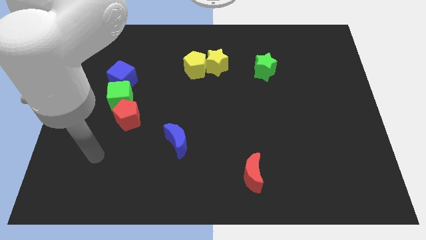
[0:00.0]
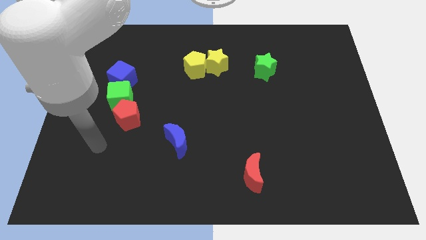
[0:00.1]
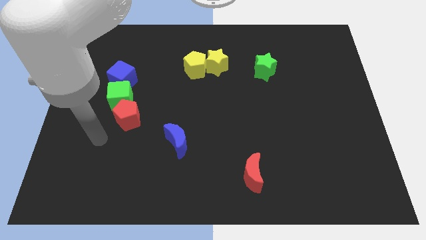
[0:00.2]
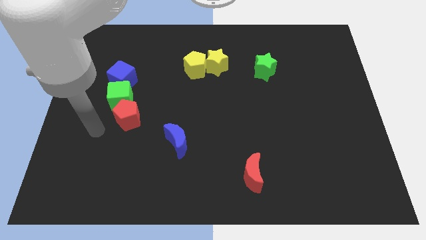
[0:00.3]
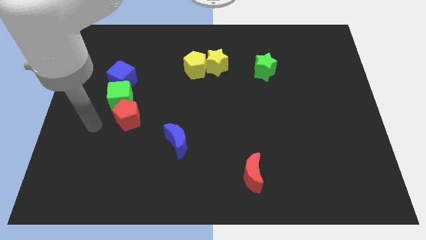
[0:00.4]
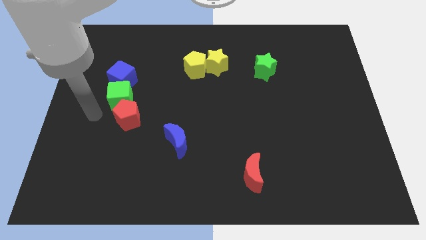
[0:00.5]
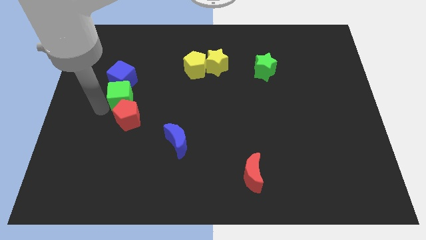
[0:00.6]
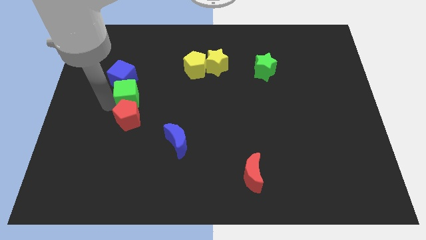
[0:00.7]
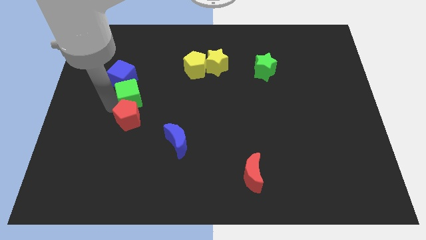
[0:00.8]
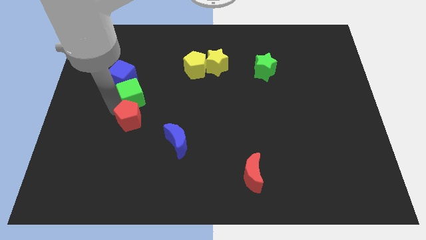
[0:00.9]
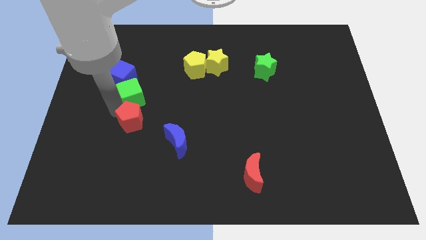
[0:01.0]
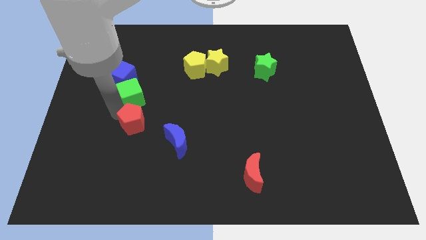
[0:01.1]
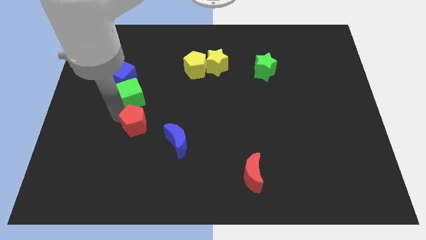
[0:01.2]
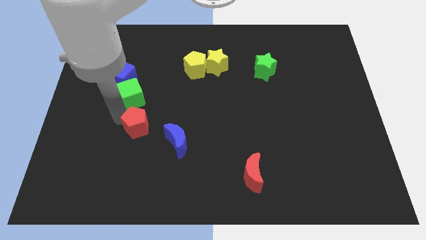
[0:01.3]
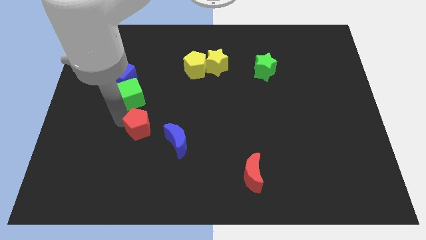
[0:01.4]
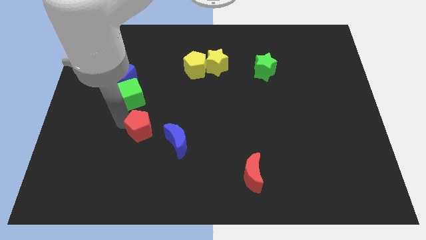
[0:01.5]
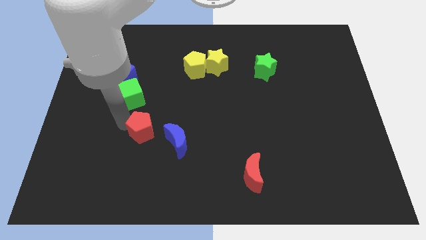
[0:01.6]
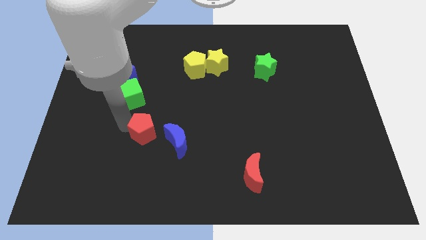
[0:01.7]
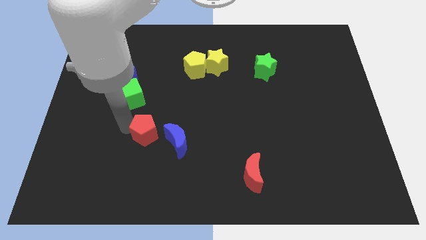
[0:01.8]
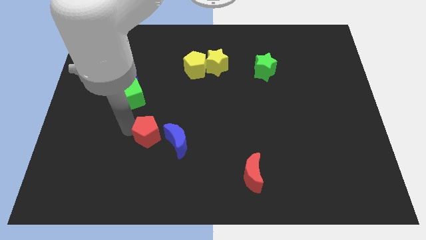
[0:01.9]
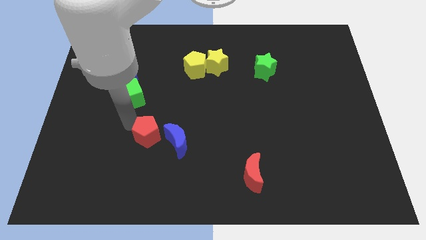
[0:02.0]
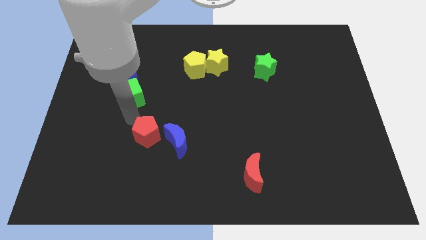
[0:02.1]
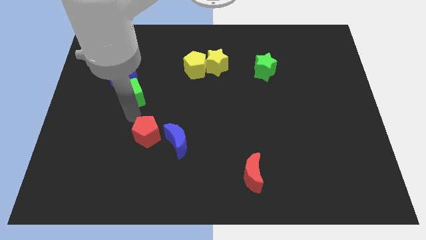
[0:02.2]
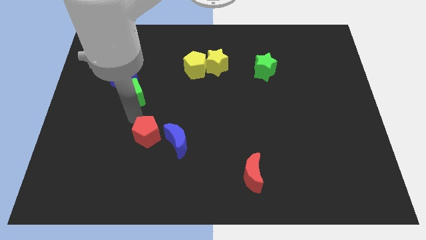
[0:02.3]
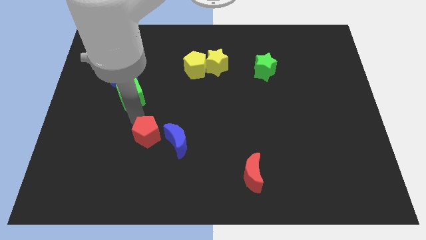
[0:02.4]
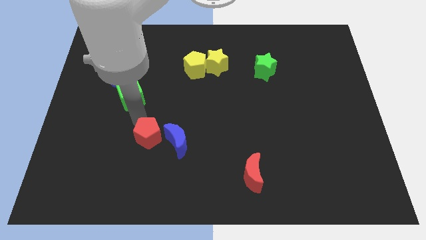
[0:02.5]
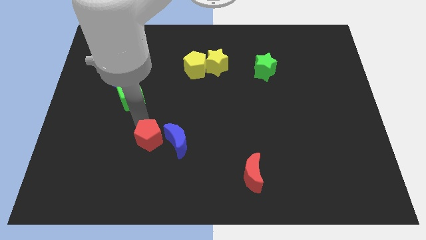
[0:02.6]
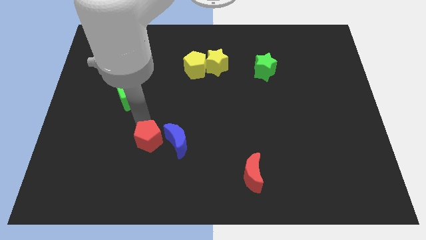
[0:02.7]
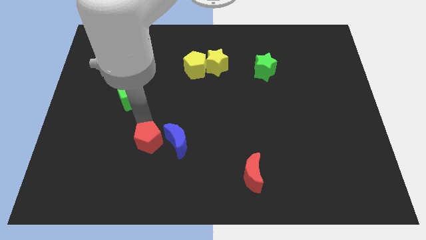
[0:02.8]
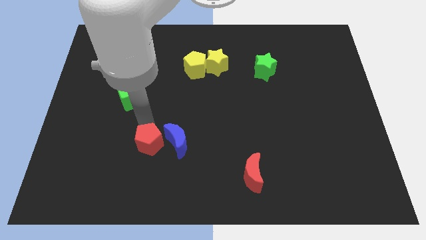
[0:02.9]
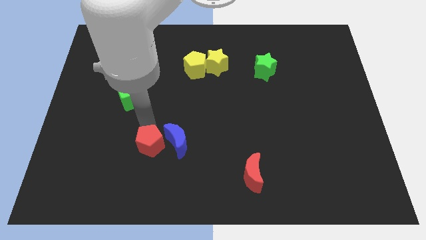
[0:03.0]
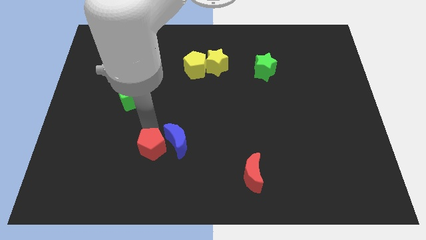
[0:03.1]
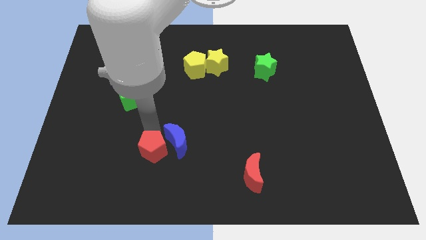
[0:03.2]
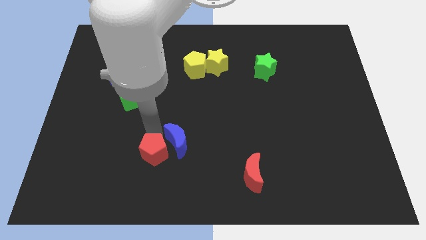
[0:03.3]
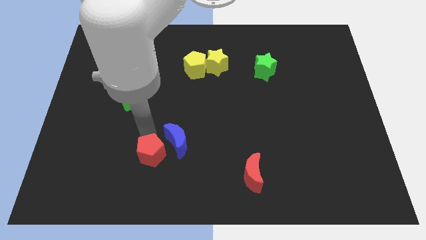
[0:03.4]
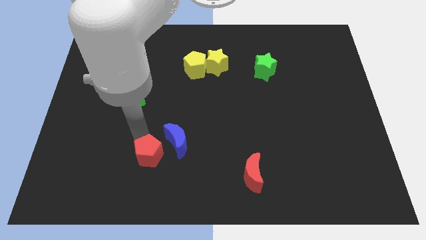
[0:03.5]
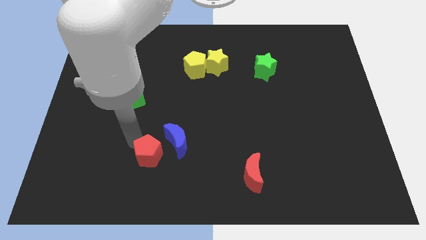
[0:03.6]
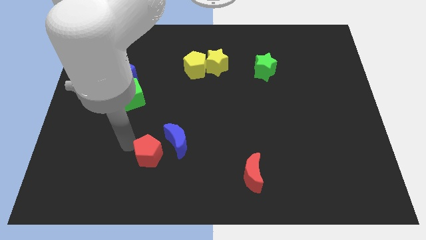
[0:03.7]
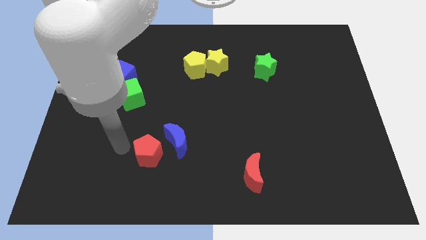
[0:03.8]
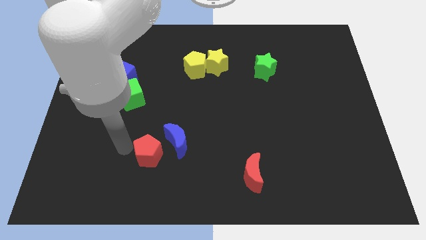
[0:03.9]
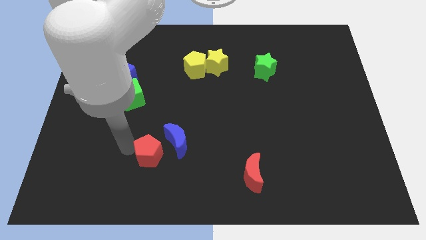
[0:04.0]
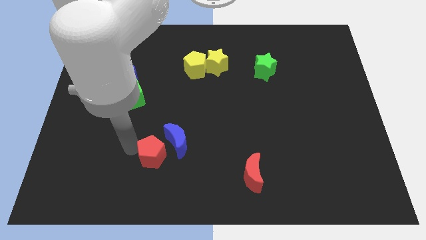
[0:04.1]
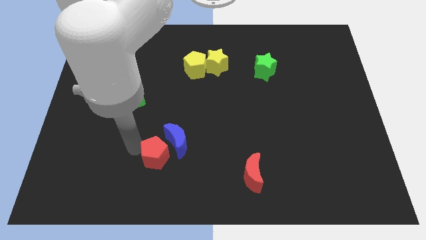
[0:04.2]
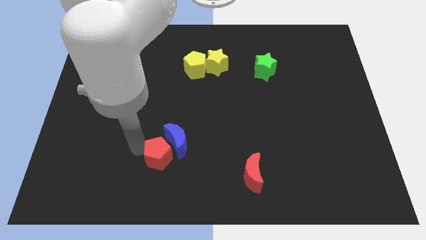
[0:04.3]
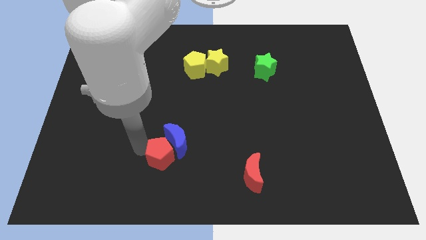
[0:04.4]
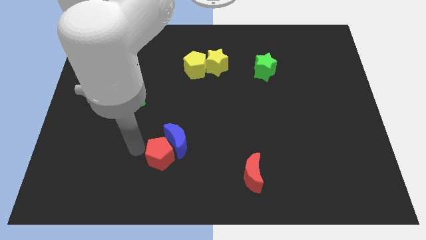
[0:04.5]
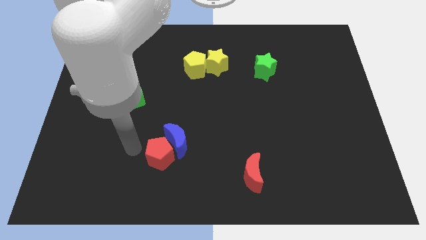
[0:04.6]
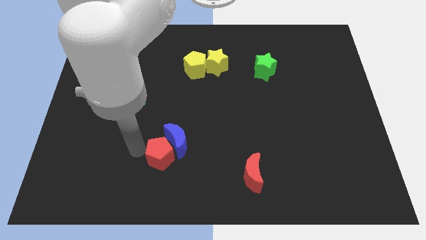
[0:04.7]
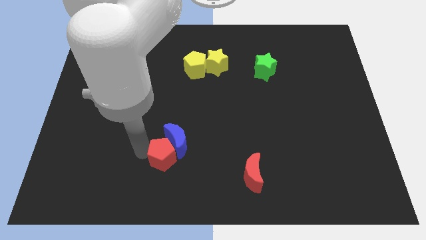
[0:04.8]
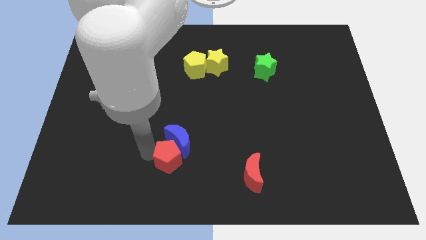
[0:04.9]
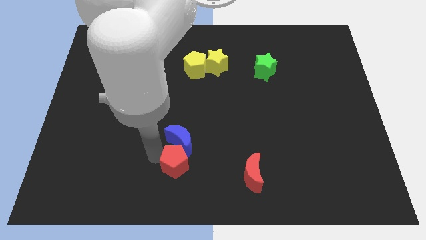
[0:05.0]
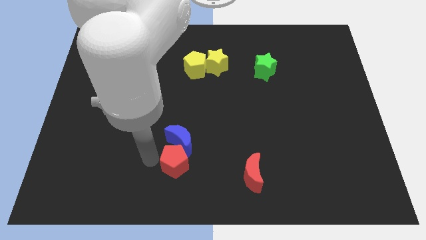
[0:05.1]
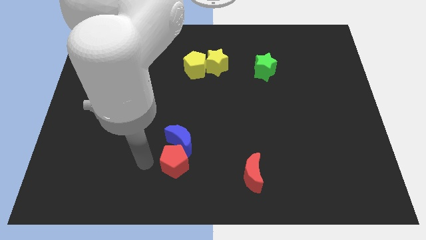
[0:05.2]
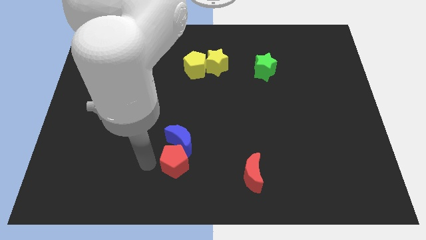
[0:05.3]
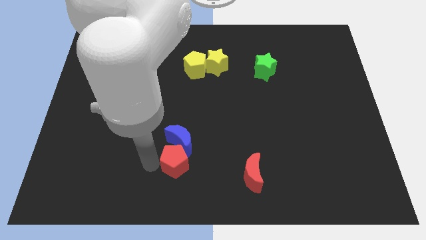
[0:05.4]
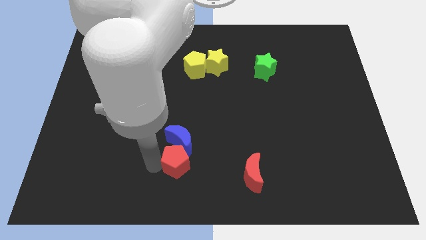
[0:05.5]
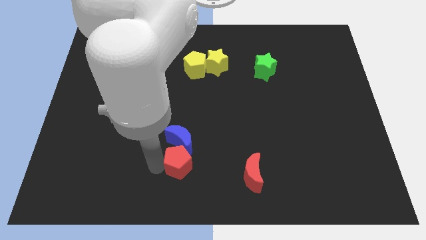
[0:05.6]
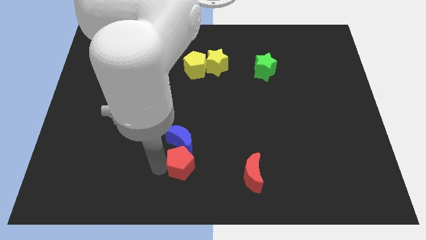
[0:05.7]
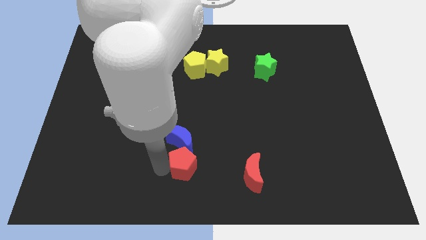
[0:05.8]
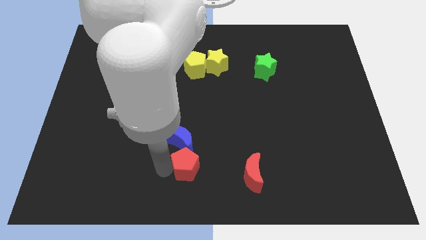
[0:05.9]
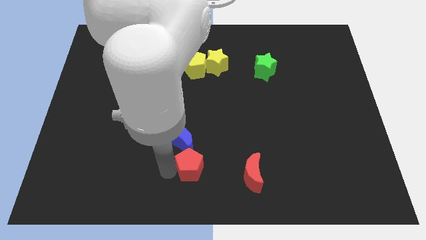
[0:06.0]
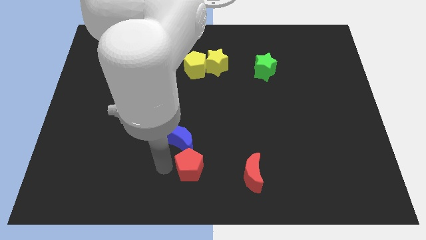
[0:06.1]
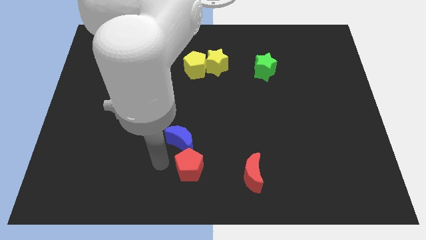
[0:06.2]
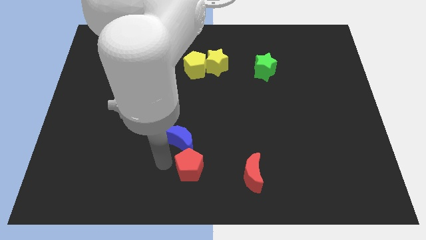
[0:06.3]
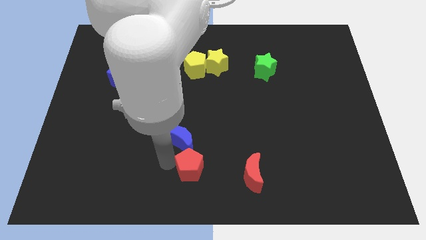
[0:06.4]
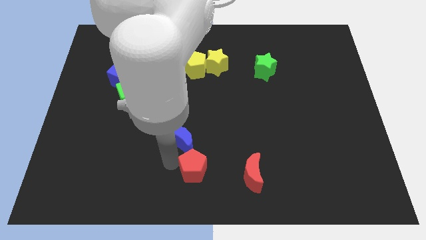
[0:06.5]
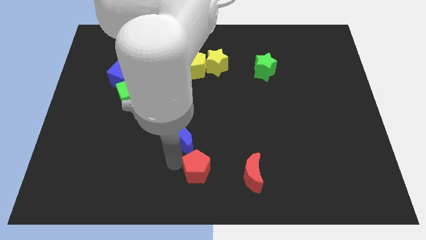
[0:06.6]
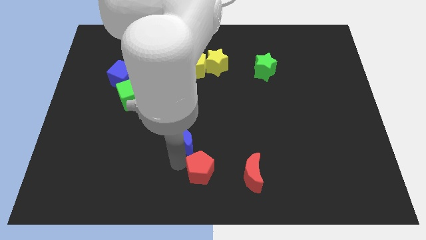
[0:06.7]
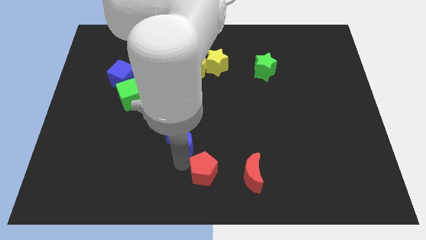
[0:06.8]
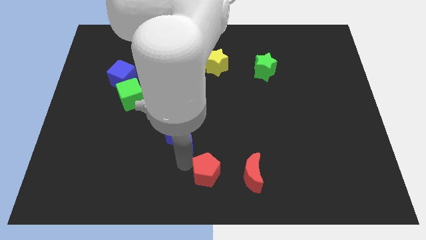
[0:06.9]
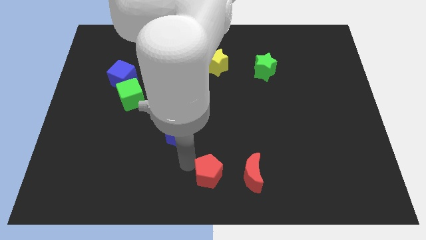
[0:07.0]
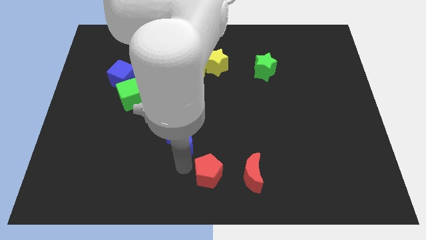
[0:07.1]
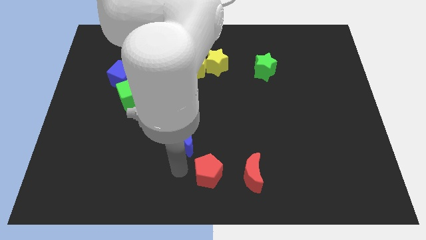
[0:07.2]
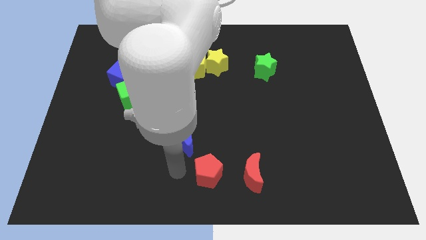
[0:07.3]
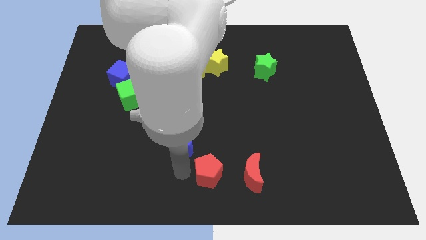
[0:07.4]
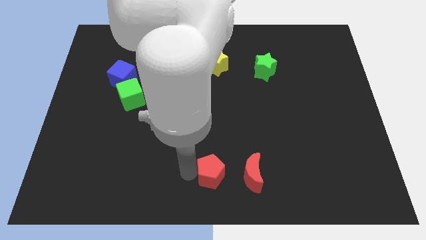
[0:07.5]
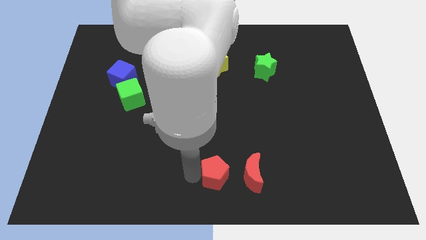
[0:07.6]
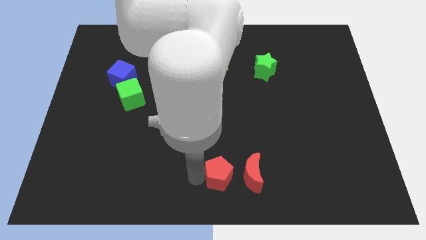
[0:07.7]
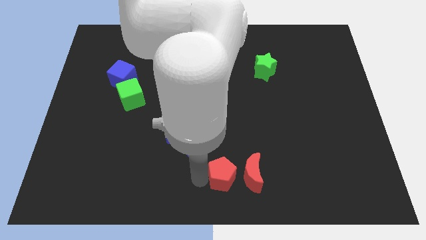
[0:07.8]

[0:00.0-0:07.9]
push the red pentagon towards the red moon

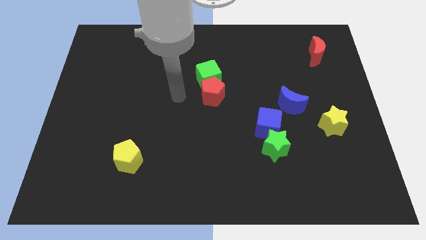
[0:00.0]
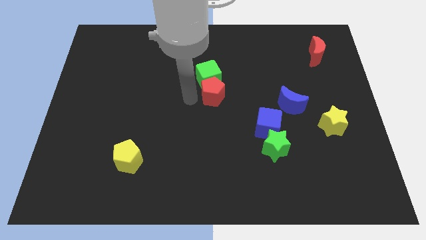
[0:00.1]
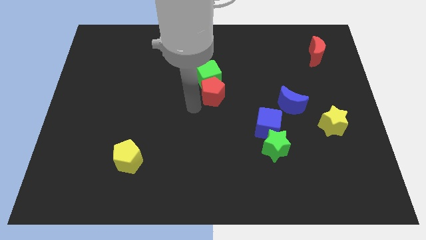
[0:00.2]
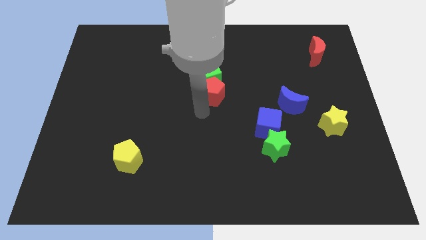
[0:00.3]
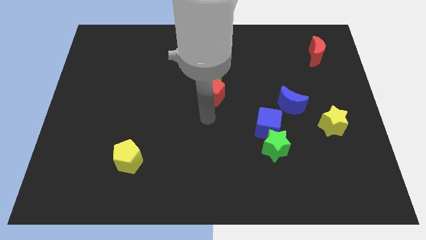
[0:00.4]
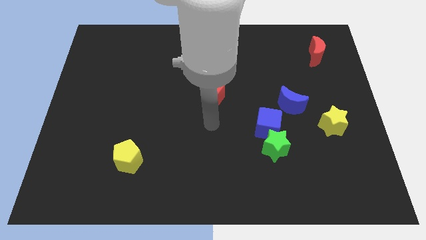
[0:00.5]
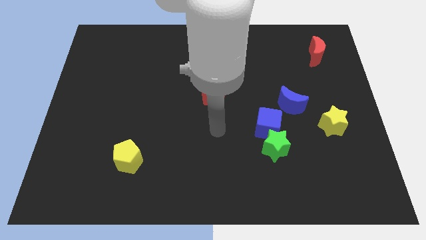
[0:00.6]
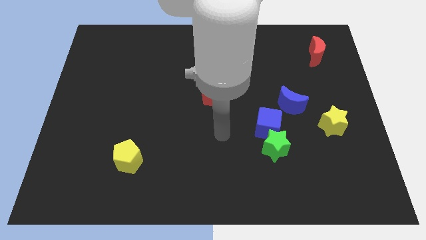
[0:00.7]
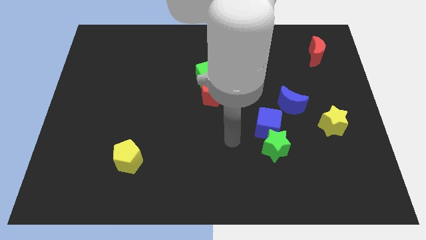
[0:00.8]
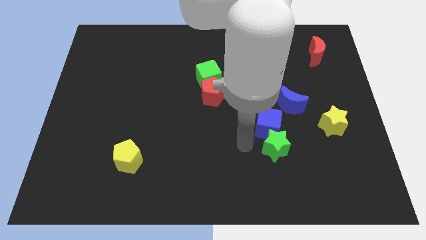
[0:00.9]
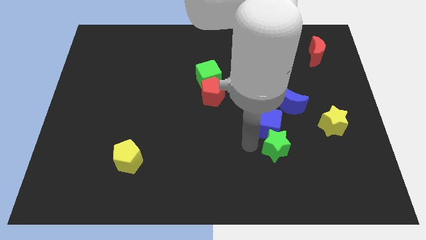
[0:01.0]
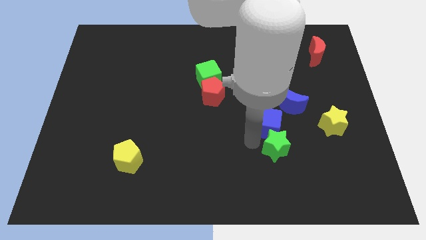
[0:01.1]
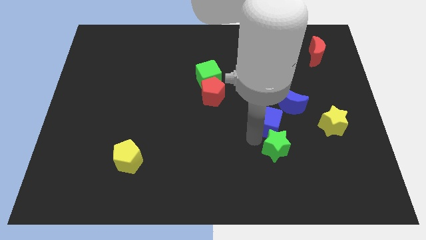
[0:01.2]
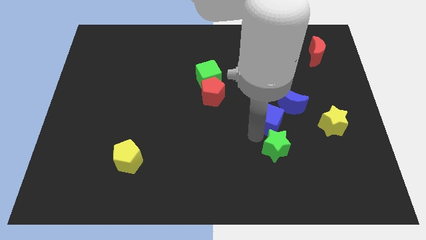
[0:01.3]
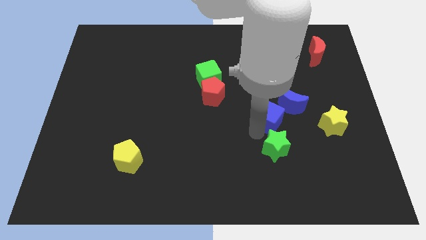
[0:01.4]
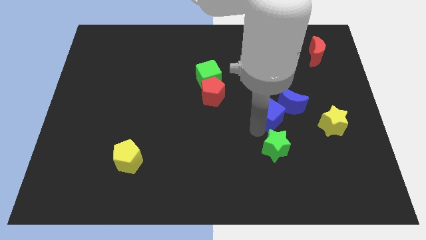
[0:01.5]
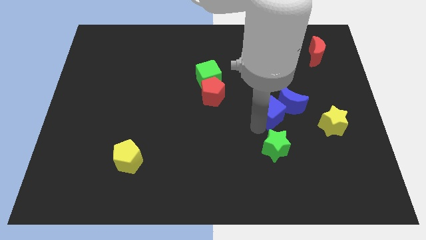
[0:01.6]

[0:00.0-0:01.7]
move the blue cube close to the blue moon
